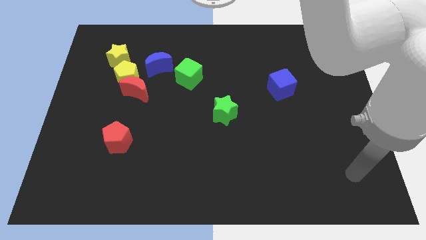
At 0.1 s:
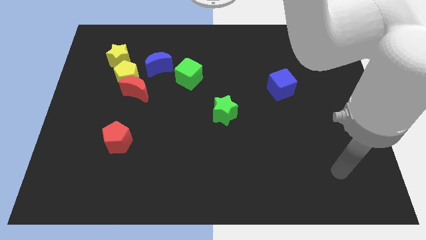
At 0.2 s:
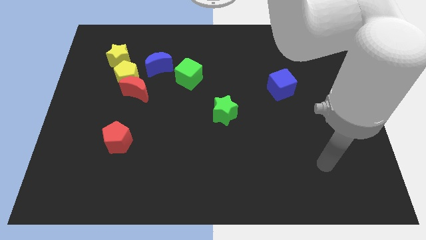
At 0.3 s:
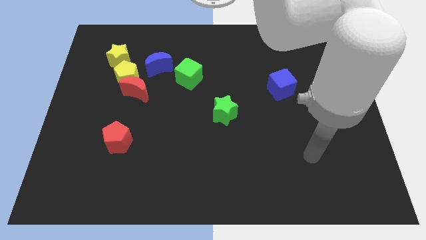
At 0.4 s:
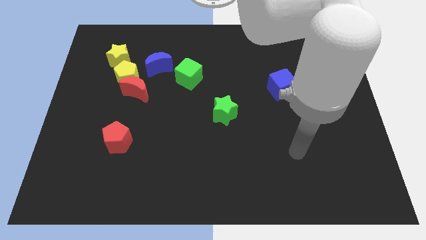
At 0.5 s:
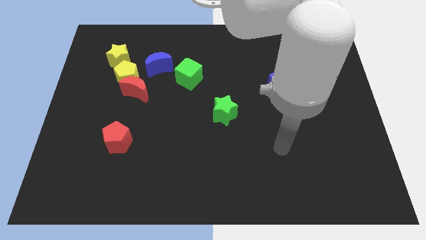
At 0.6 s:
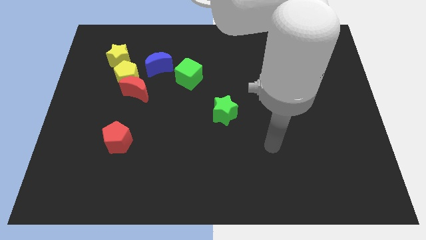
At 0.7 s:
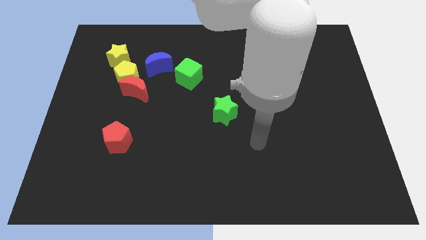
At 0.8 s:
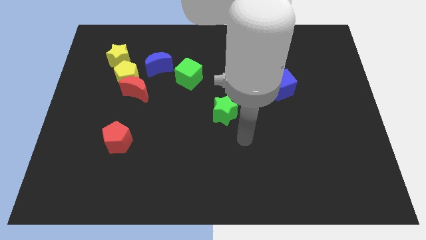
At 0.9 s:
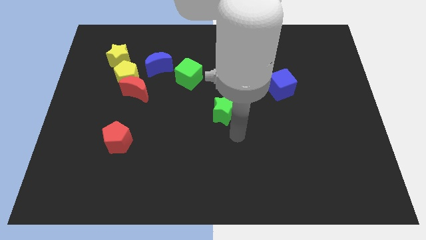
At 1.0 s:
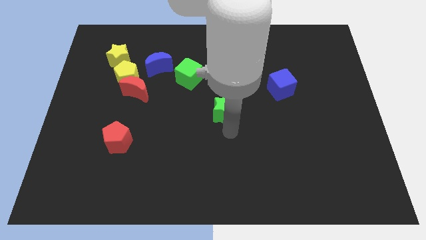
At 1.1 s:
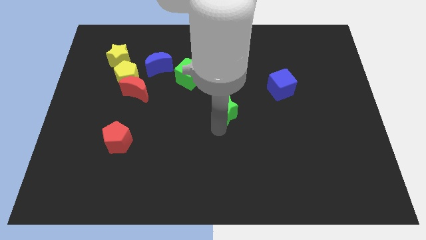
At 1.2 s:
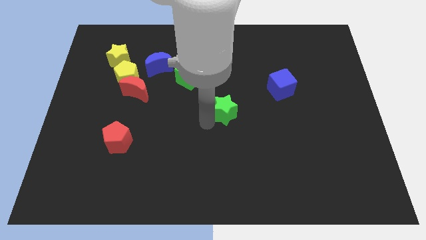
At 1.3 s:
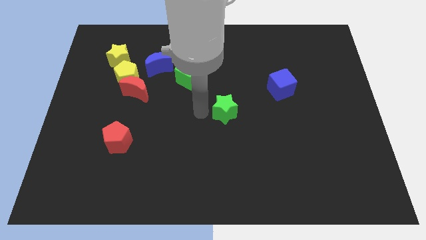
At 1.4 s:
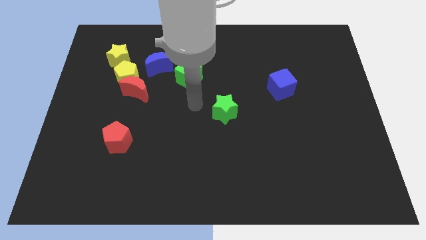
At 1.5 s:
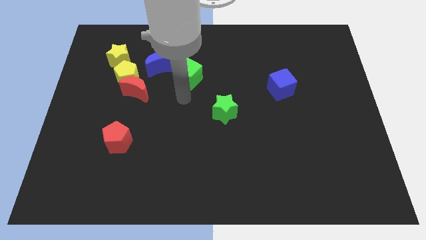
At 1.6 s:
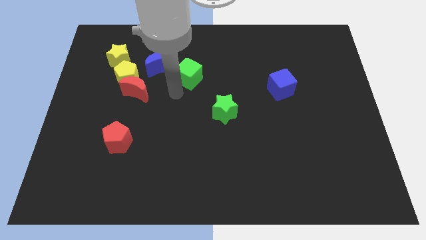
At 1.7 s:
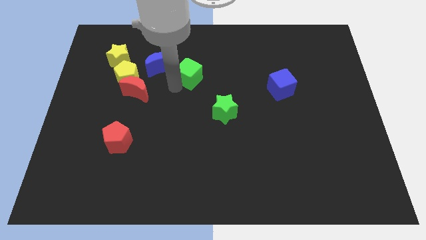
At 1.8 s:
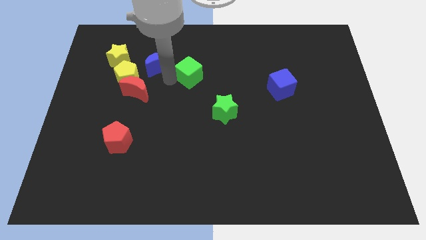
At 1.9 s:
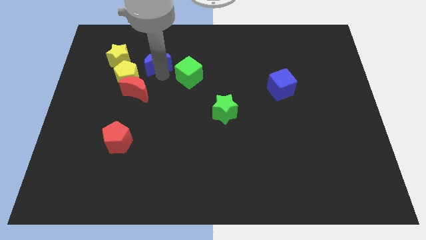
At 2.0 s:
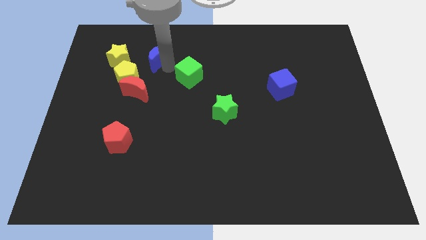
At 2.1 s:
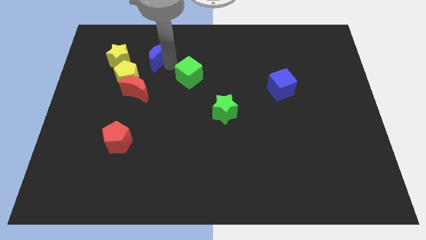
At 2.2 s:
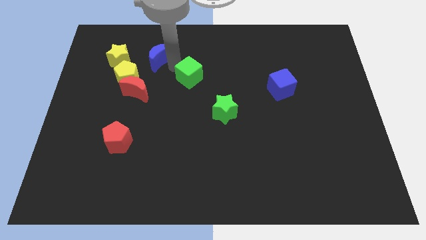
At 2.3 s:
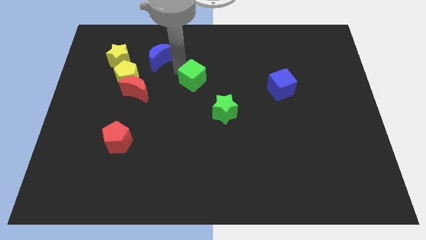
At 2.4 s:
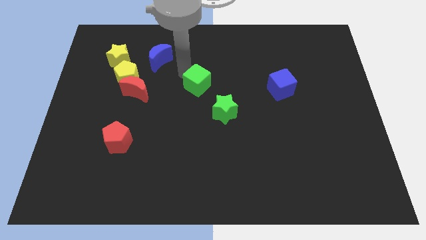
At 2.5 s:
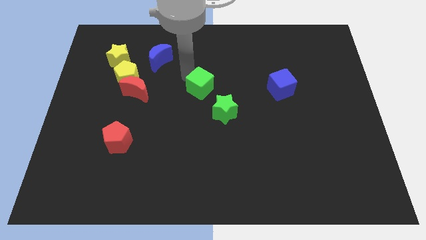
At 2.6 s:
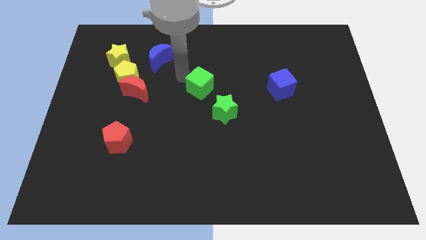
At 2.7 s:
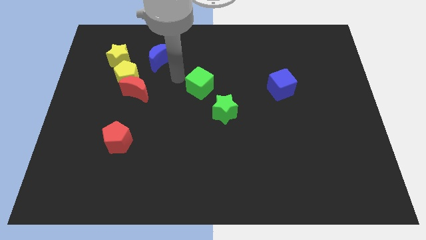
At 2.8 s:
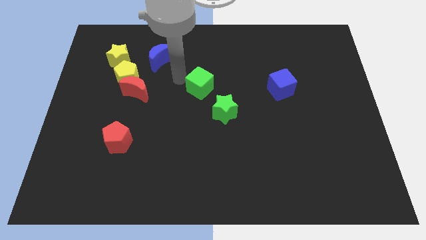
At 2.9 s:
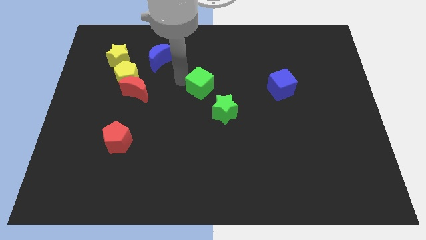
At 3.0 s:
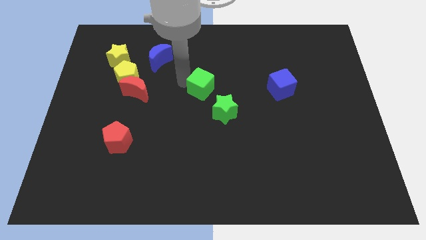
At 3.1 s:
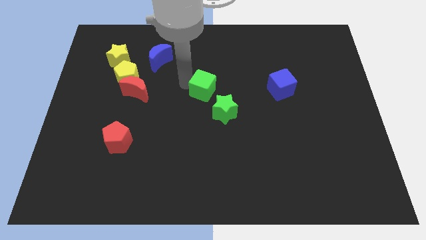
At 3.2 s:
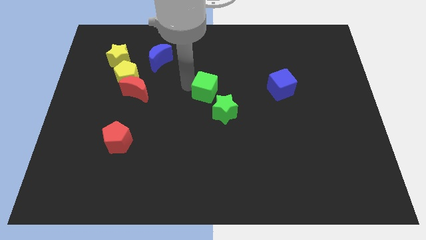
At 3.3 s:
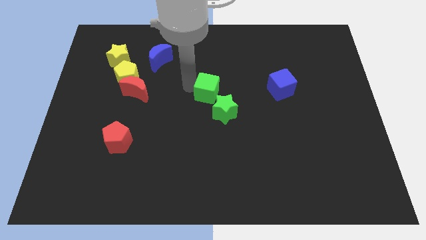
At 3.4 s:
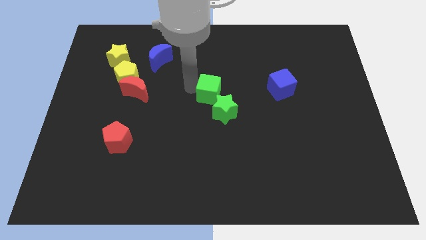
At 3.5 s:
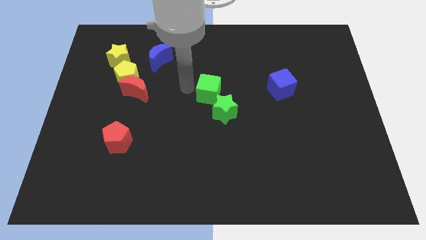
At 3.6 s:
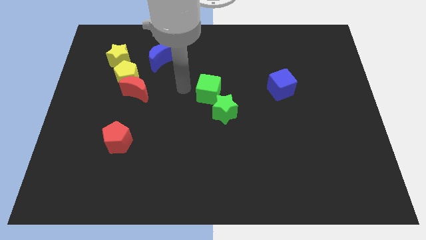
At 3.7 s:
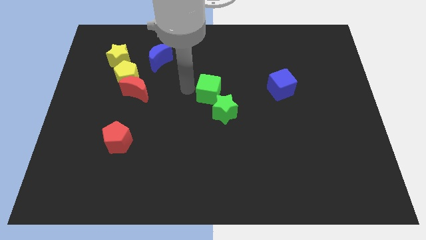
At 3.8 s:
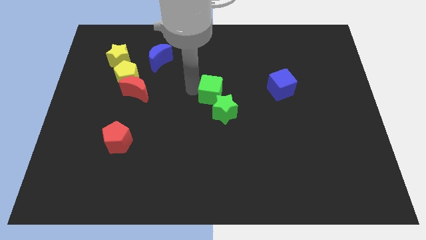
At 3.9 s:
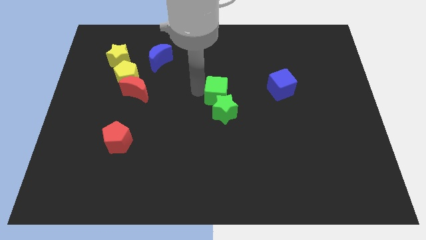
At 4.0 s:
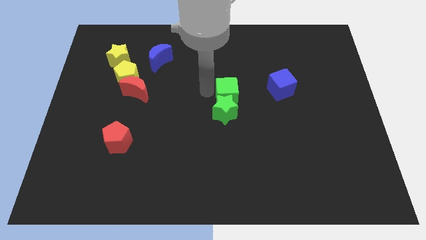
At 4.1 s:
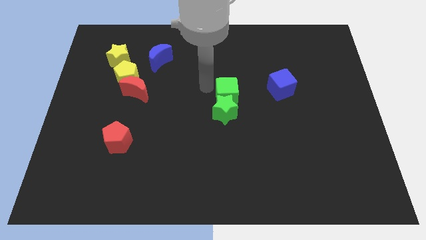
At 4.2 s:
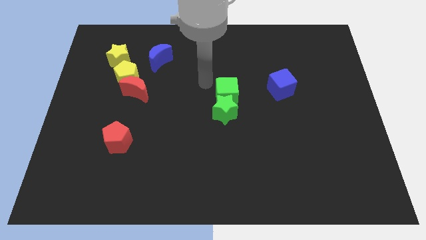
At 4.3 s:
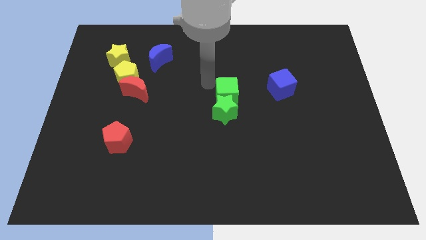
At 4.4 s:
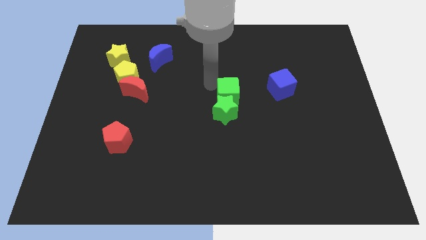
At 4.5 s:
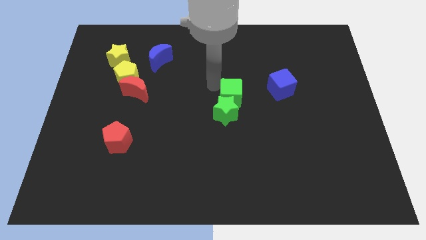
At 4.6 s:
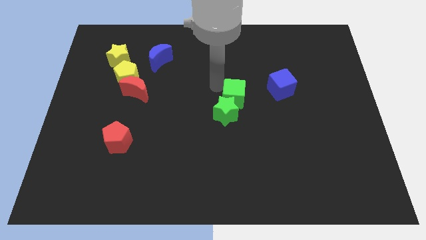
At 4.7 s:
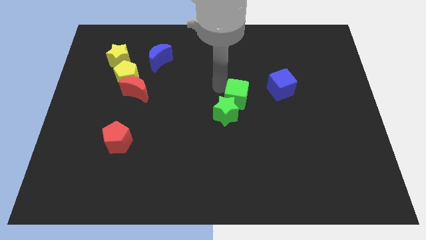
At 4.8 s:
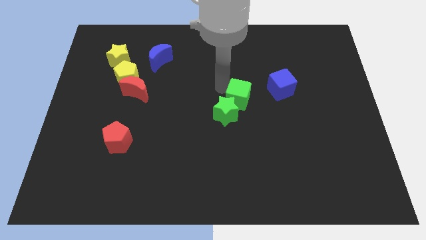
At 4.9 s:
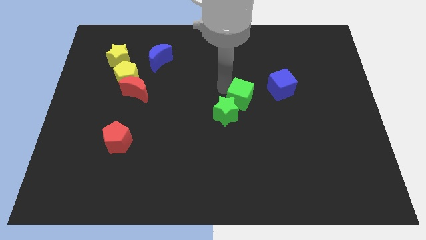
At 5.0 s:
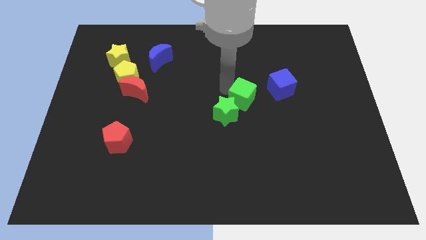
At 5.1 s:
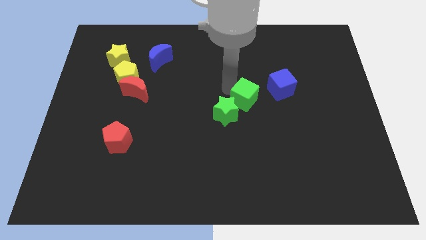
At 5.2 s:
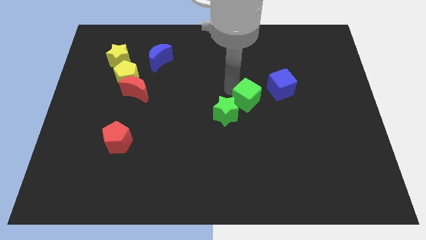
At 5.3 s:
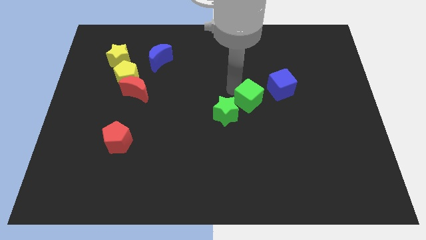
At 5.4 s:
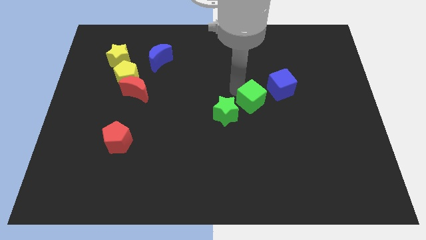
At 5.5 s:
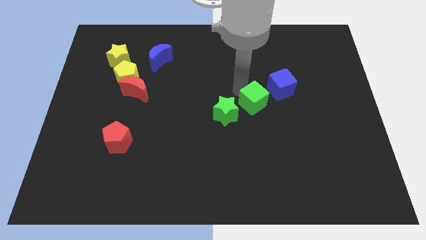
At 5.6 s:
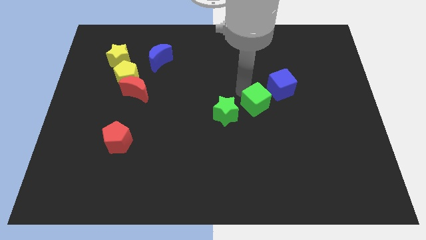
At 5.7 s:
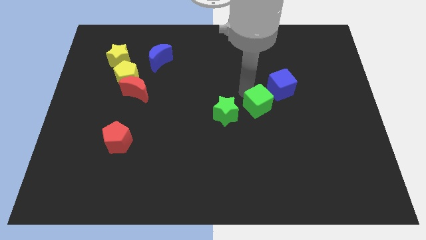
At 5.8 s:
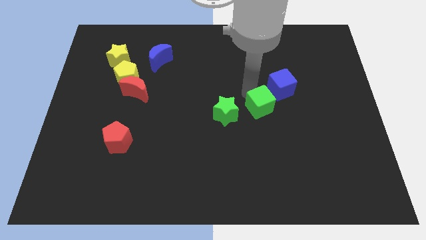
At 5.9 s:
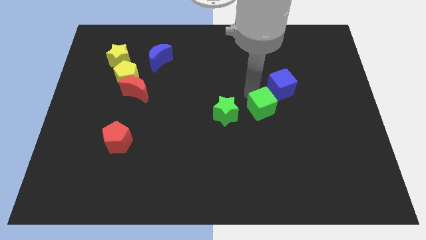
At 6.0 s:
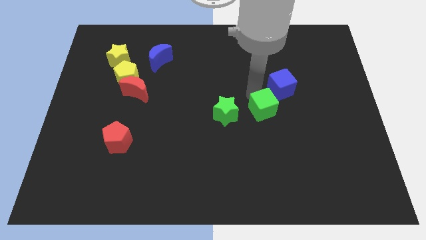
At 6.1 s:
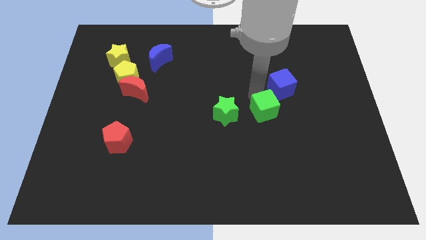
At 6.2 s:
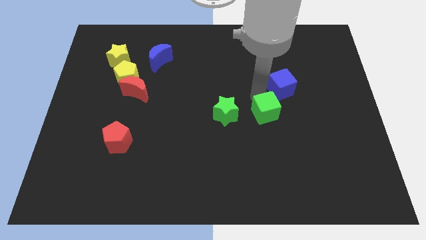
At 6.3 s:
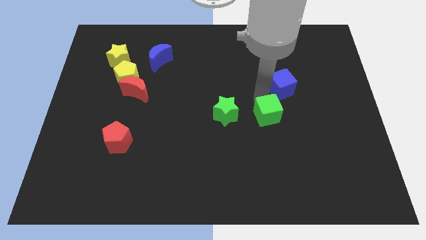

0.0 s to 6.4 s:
push the green cube down and then right

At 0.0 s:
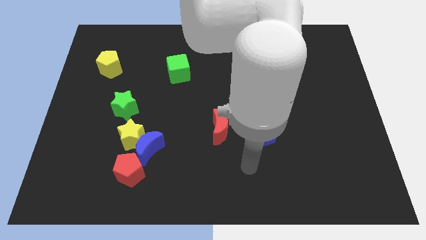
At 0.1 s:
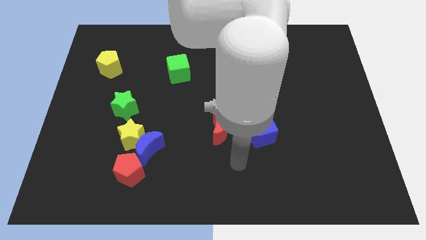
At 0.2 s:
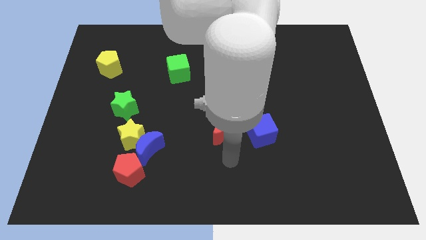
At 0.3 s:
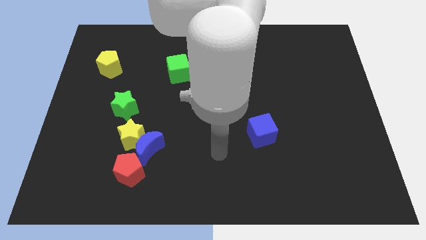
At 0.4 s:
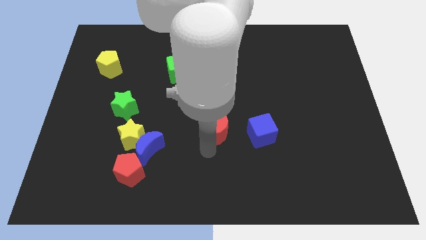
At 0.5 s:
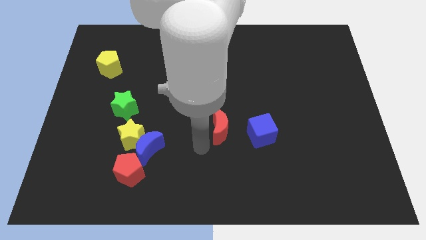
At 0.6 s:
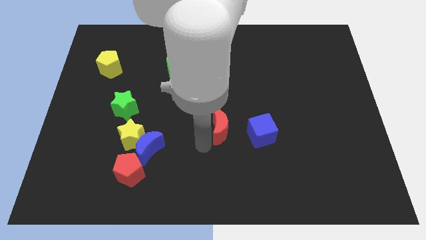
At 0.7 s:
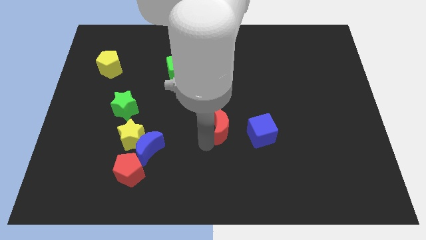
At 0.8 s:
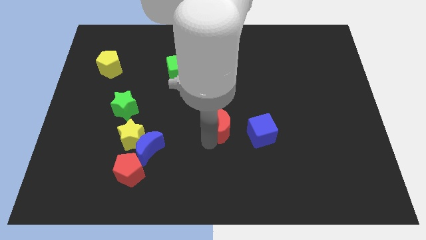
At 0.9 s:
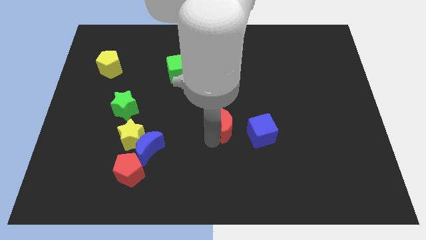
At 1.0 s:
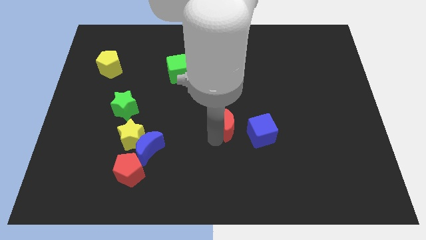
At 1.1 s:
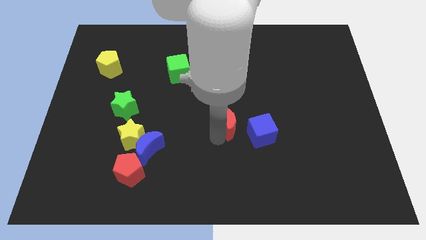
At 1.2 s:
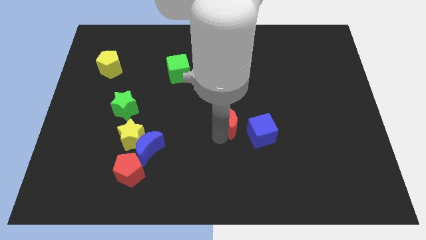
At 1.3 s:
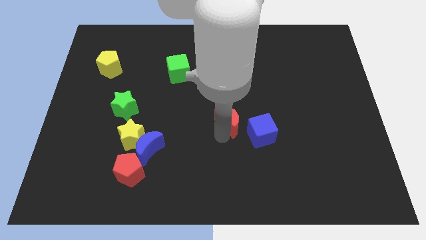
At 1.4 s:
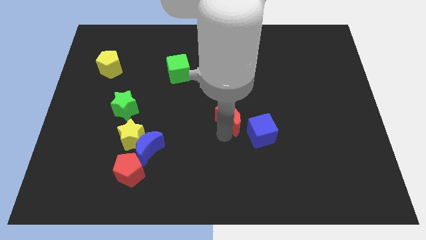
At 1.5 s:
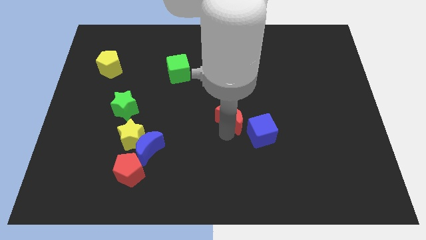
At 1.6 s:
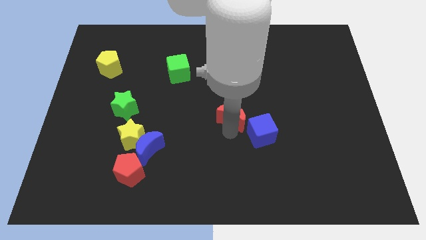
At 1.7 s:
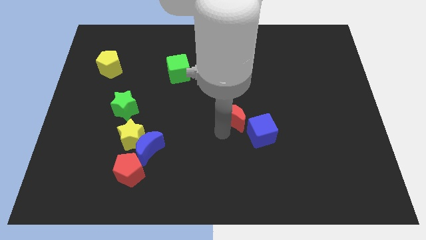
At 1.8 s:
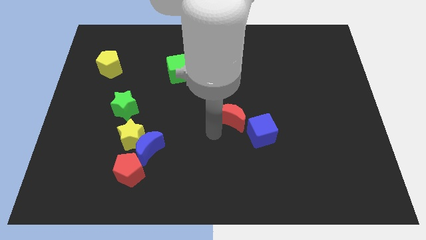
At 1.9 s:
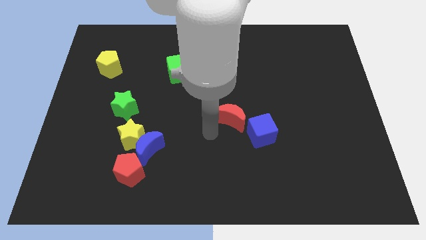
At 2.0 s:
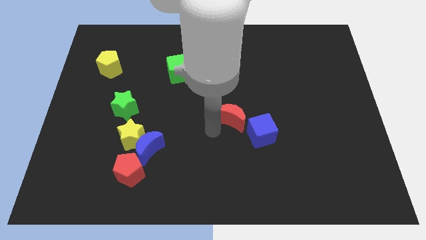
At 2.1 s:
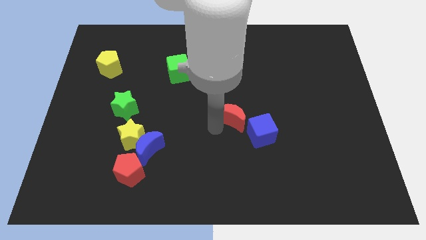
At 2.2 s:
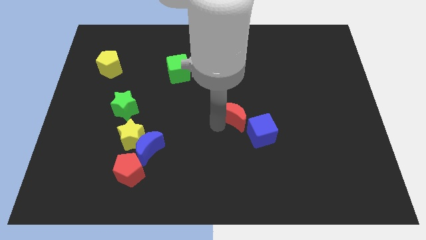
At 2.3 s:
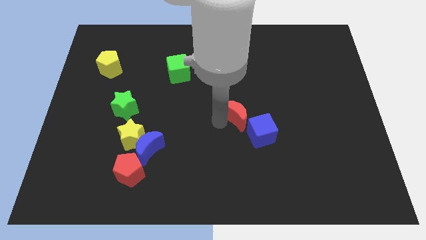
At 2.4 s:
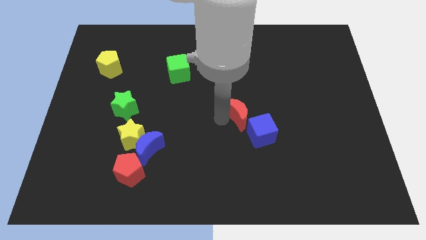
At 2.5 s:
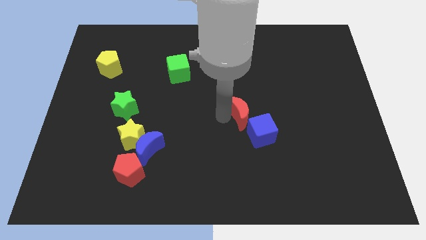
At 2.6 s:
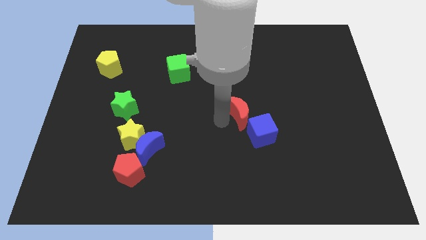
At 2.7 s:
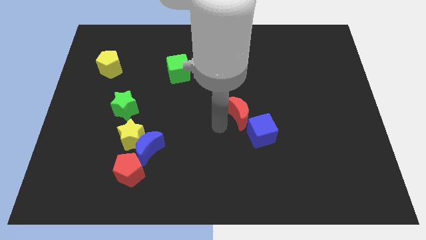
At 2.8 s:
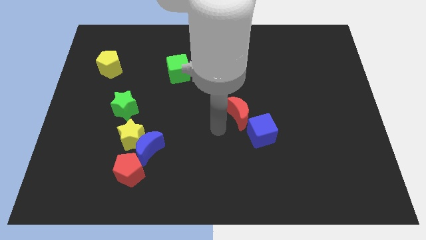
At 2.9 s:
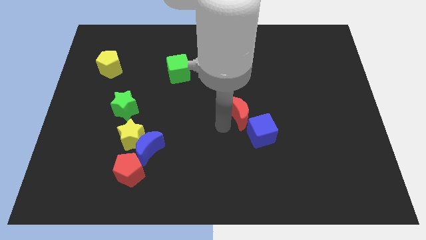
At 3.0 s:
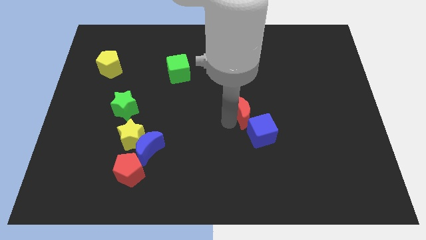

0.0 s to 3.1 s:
slightly slide the red moon diagonally upwards and right
